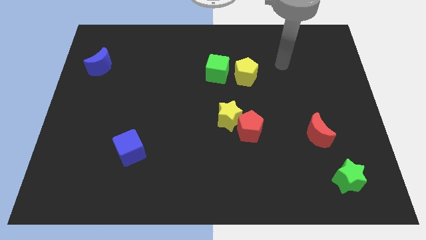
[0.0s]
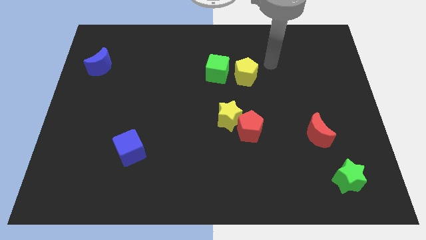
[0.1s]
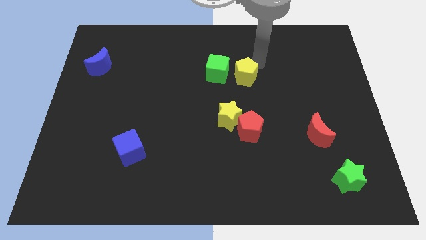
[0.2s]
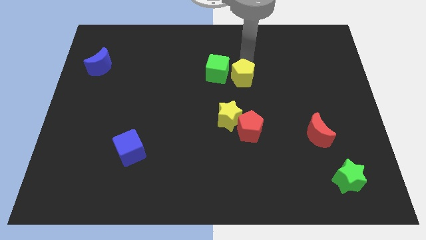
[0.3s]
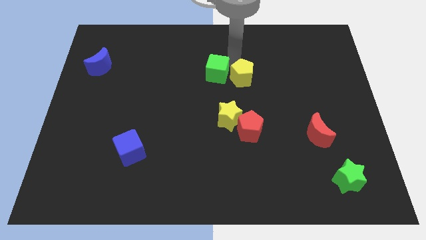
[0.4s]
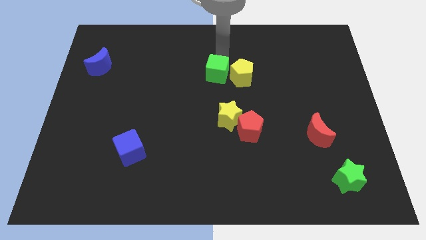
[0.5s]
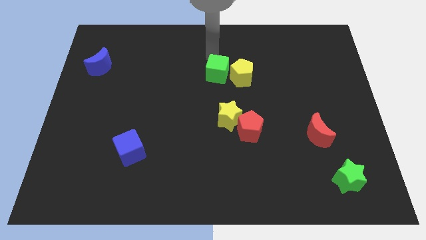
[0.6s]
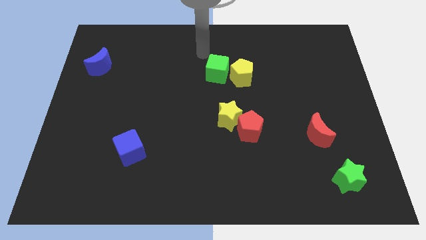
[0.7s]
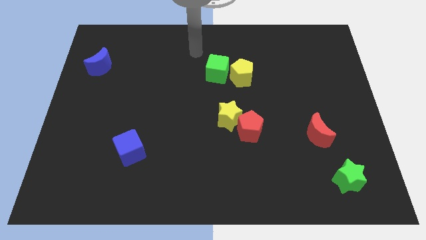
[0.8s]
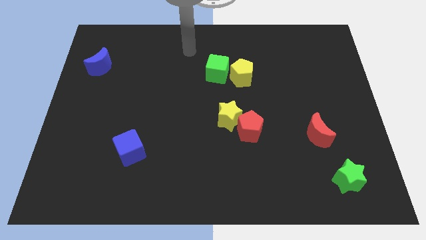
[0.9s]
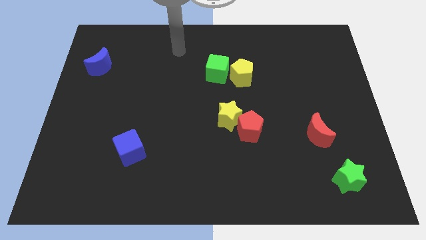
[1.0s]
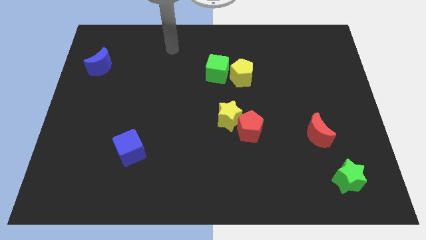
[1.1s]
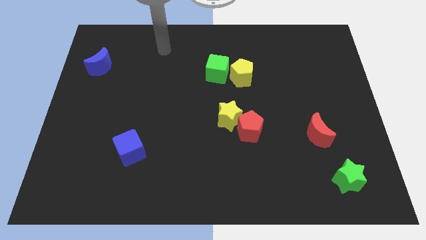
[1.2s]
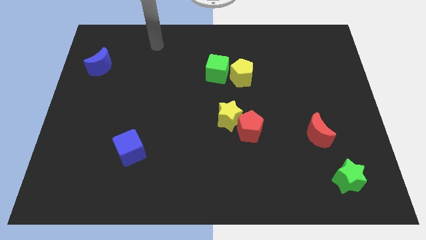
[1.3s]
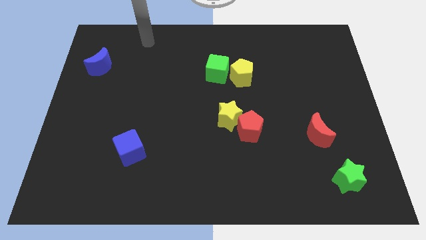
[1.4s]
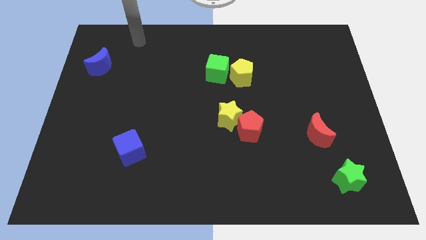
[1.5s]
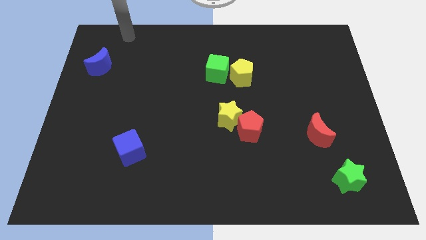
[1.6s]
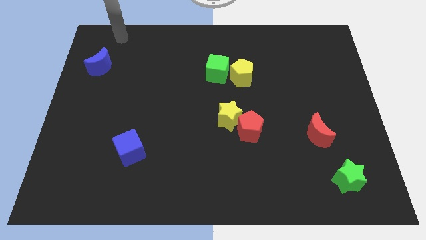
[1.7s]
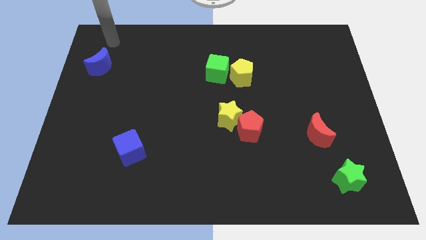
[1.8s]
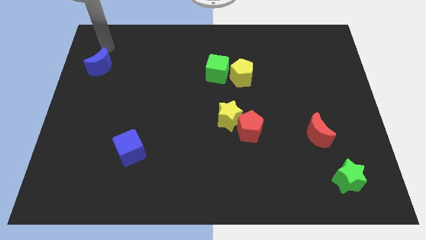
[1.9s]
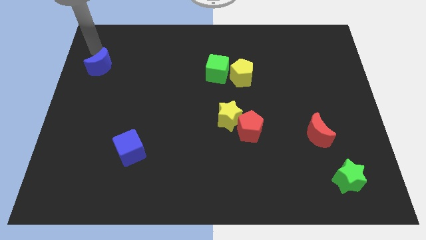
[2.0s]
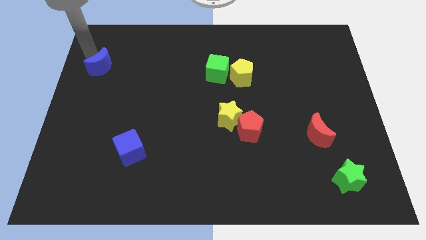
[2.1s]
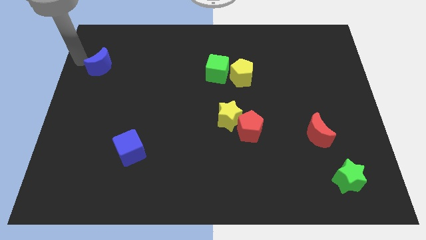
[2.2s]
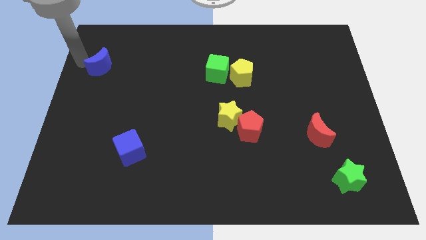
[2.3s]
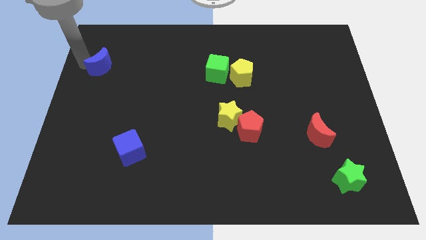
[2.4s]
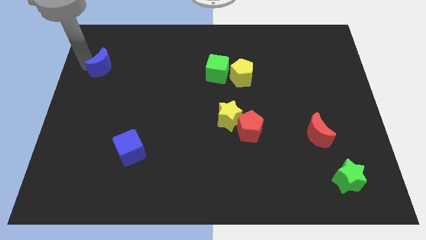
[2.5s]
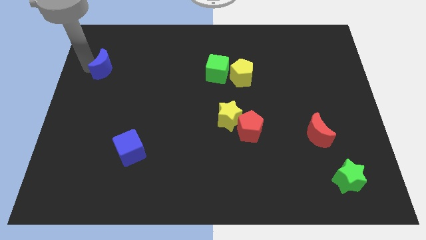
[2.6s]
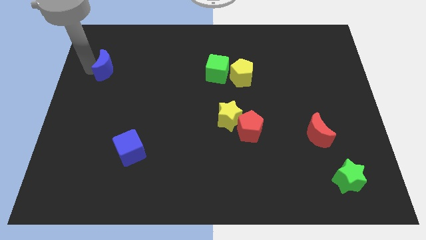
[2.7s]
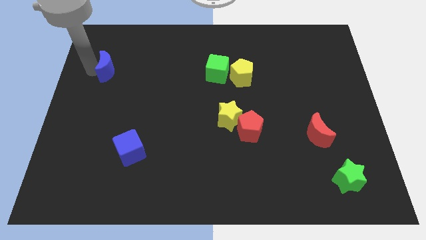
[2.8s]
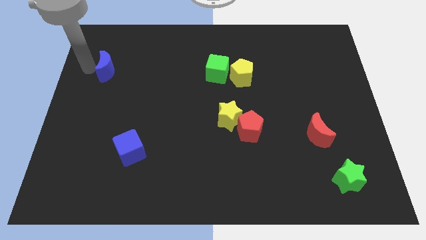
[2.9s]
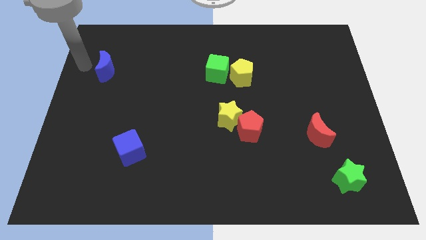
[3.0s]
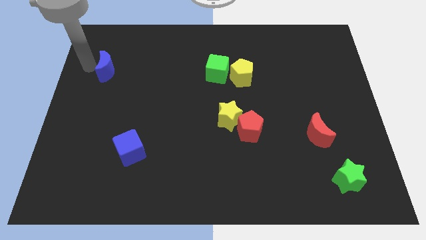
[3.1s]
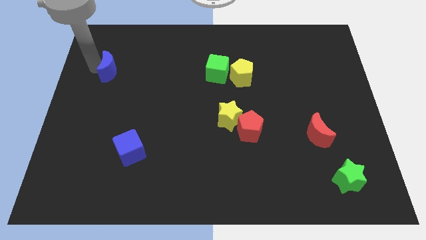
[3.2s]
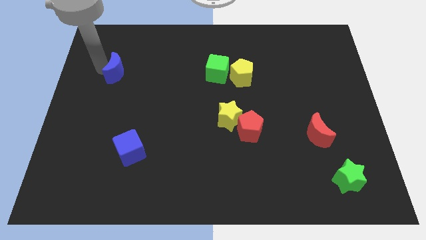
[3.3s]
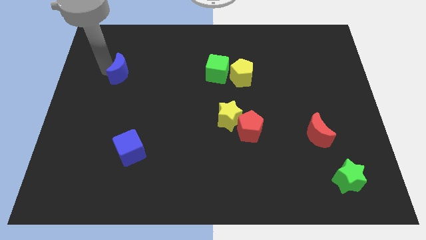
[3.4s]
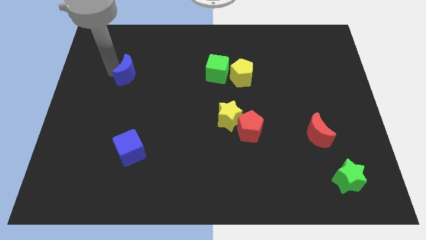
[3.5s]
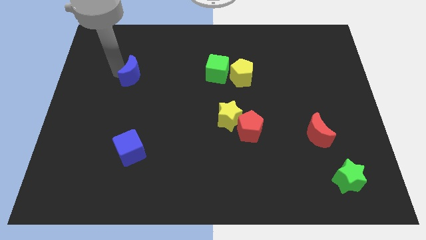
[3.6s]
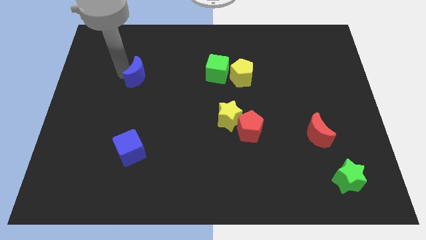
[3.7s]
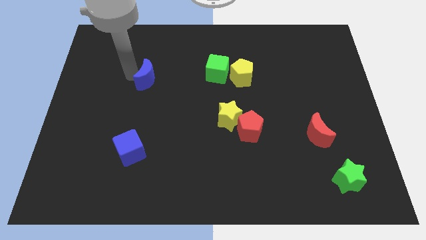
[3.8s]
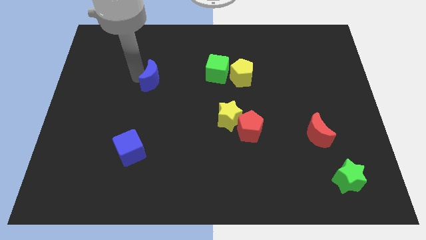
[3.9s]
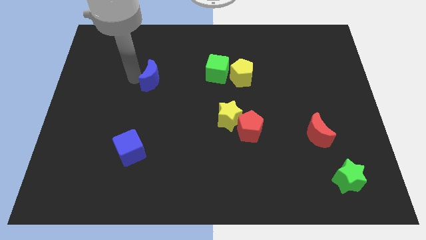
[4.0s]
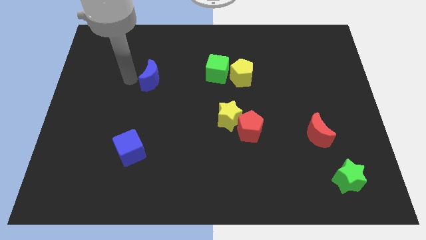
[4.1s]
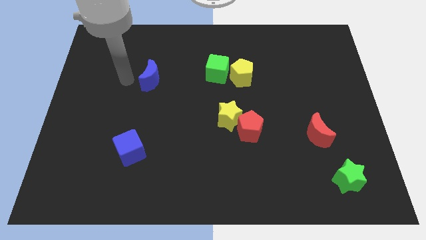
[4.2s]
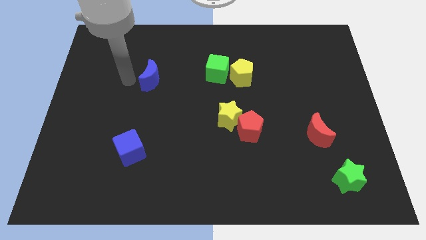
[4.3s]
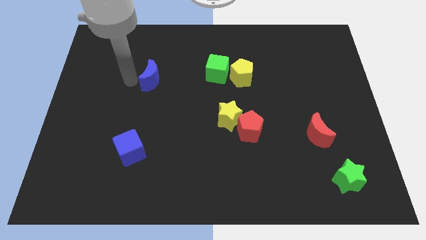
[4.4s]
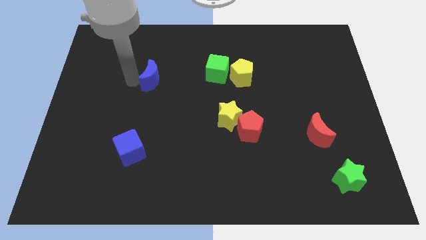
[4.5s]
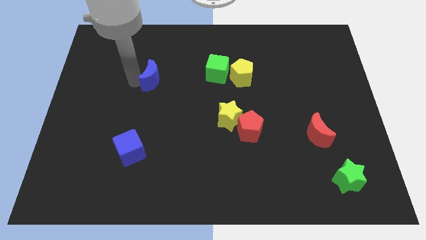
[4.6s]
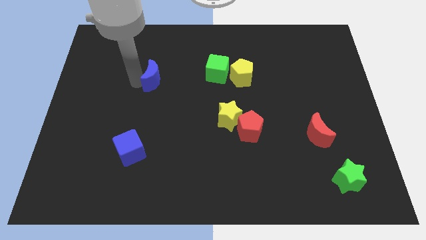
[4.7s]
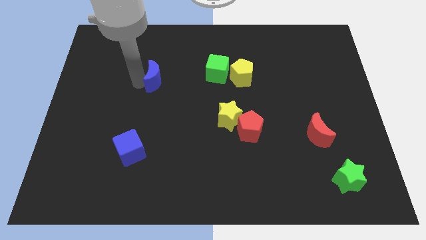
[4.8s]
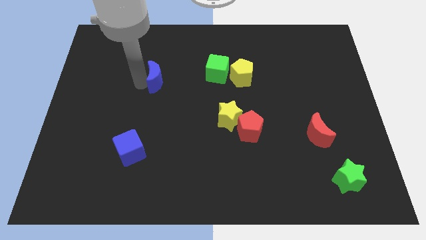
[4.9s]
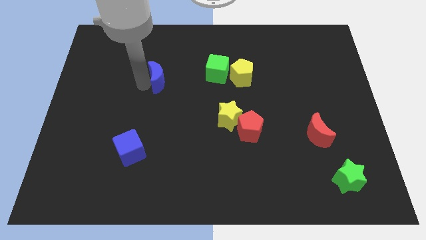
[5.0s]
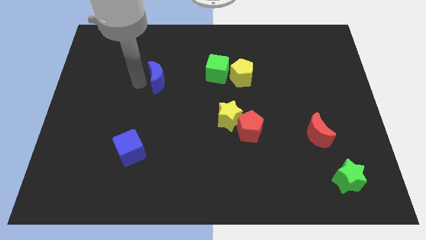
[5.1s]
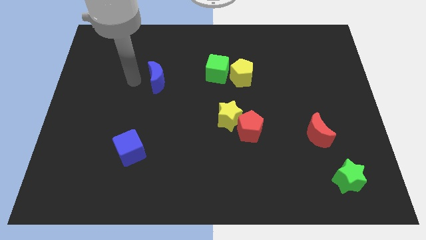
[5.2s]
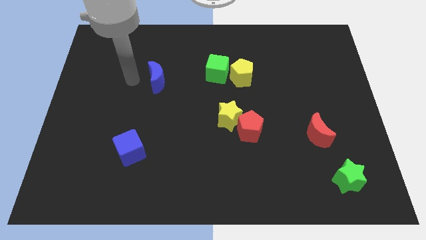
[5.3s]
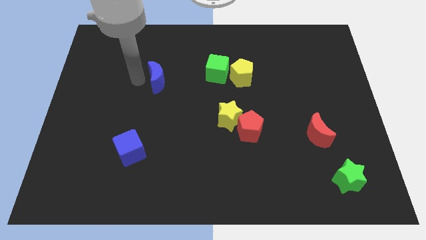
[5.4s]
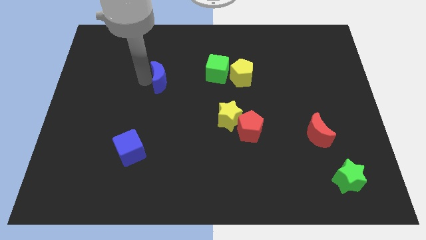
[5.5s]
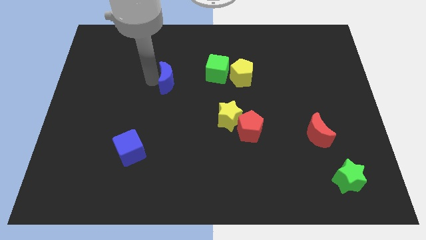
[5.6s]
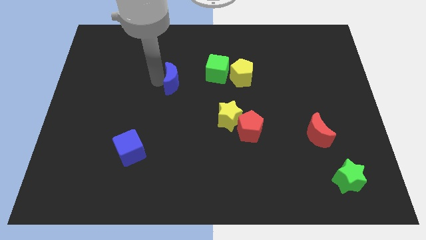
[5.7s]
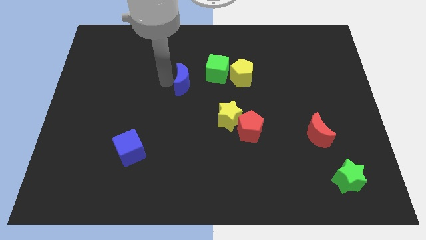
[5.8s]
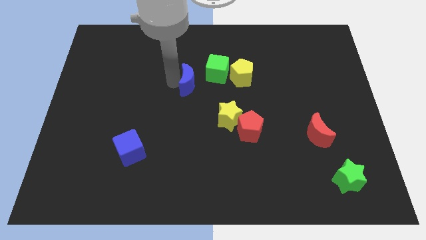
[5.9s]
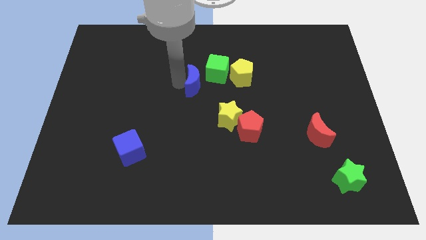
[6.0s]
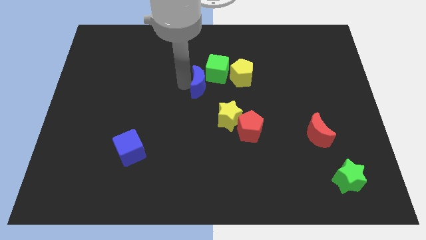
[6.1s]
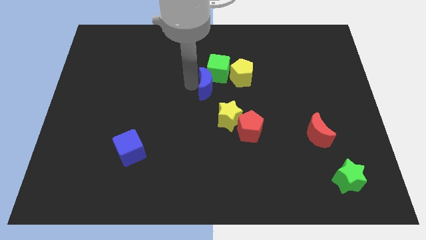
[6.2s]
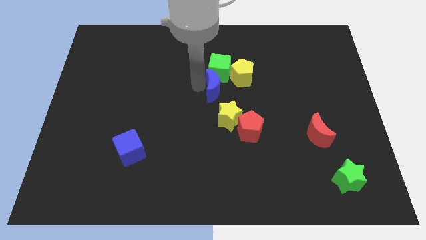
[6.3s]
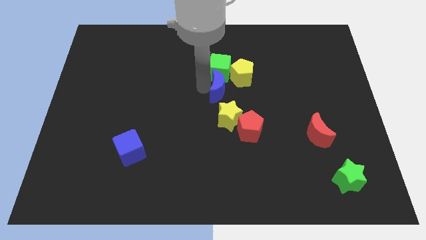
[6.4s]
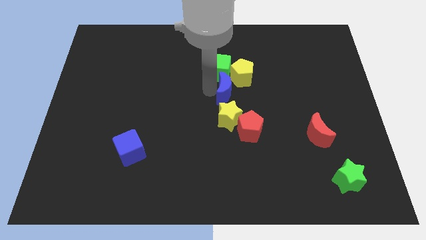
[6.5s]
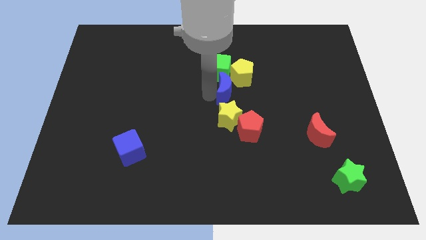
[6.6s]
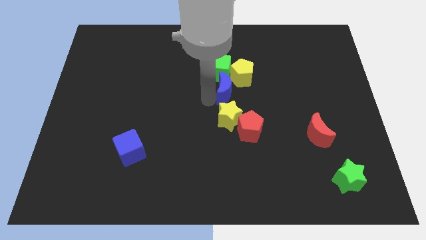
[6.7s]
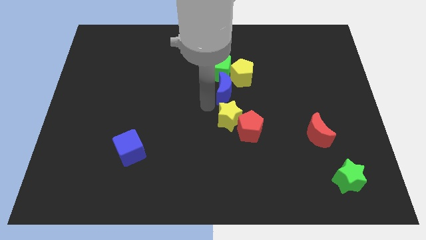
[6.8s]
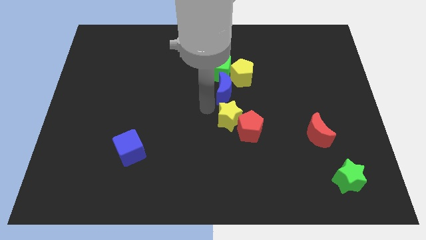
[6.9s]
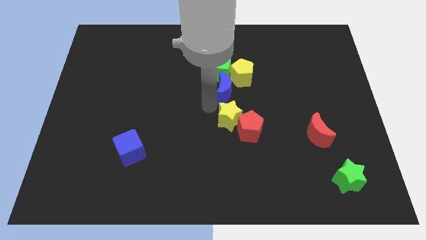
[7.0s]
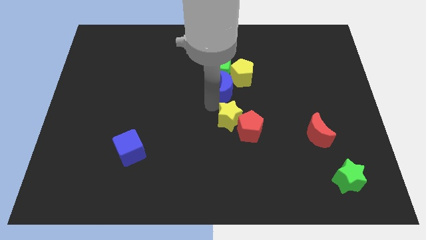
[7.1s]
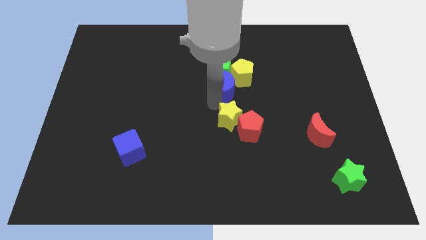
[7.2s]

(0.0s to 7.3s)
push the blue moon close to the yellow pentagon
